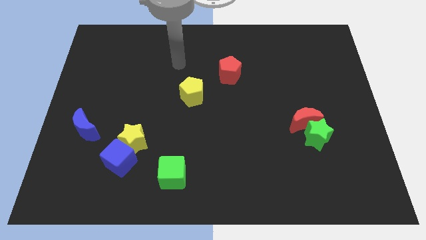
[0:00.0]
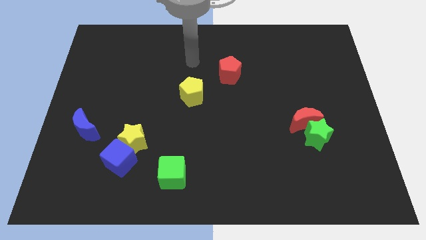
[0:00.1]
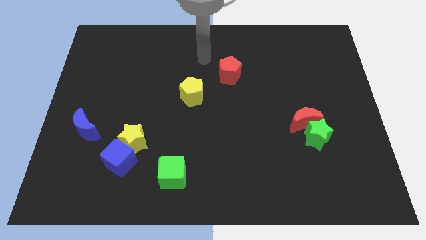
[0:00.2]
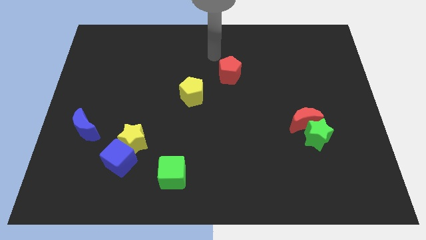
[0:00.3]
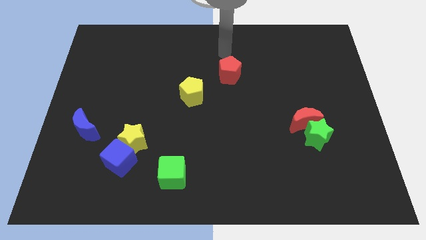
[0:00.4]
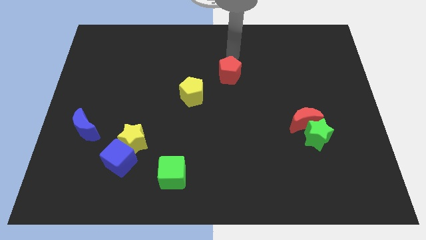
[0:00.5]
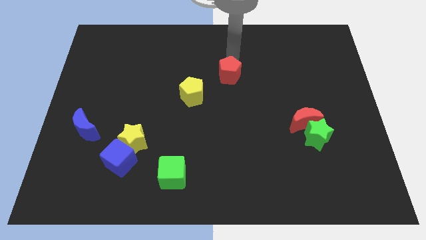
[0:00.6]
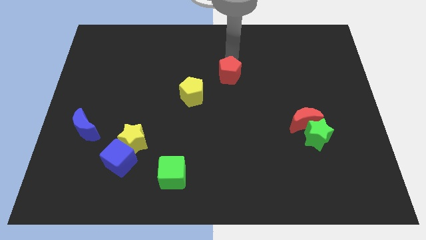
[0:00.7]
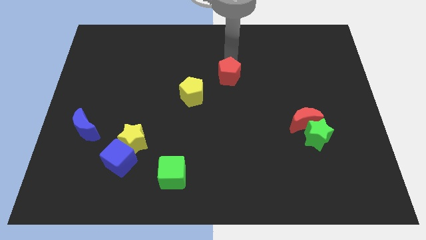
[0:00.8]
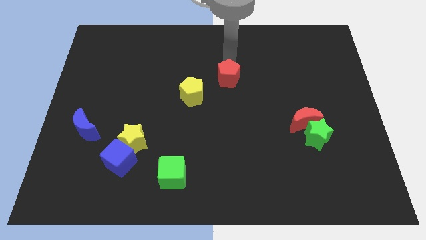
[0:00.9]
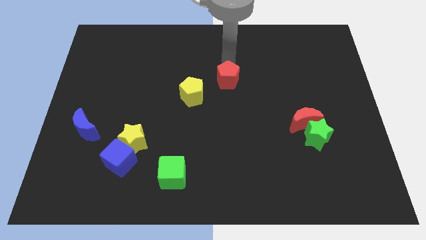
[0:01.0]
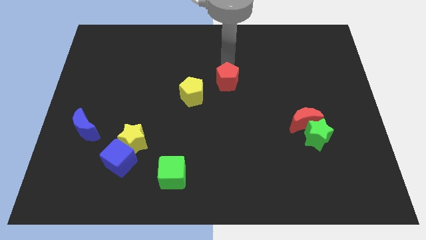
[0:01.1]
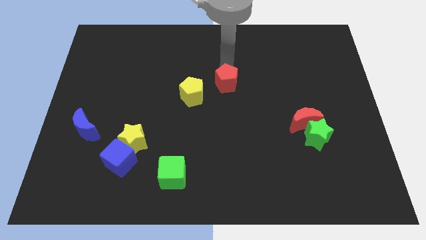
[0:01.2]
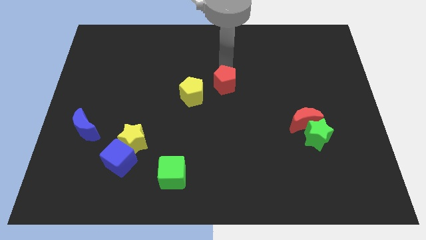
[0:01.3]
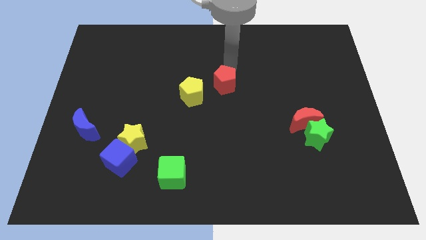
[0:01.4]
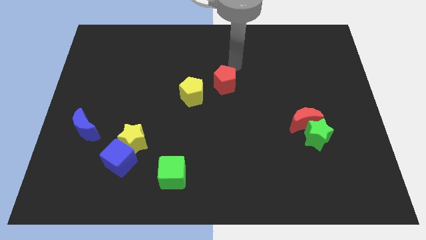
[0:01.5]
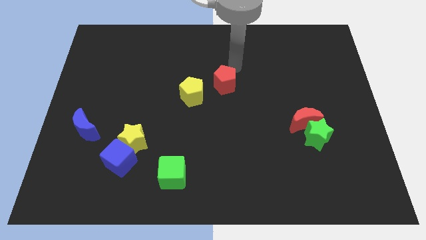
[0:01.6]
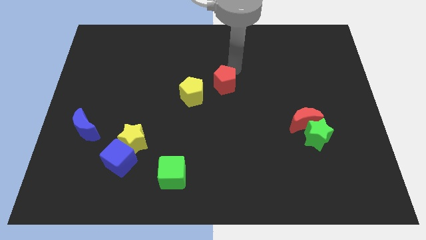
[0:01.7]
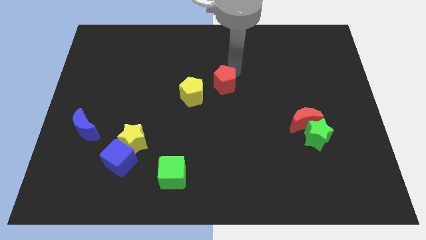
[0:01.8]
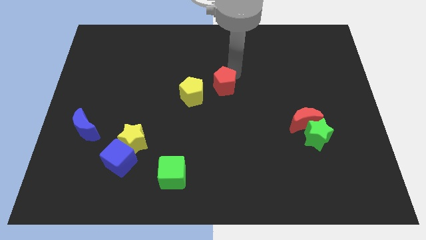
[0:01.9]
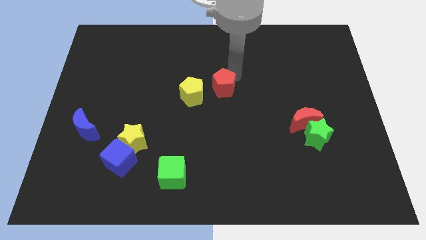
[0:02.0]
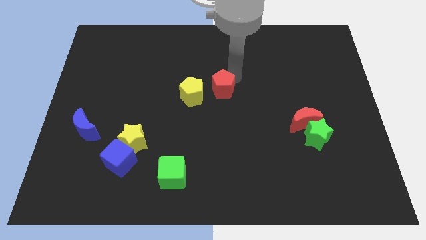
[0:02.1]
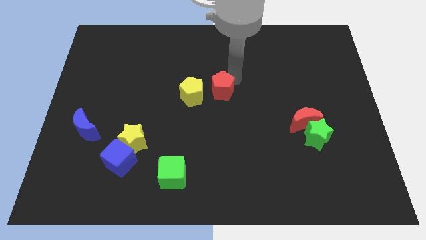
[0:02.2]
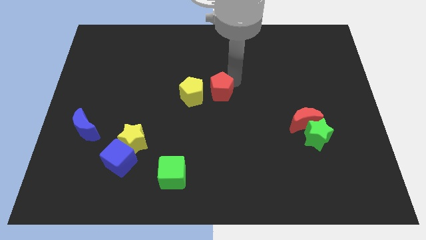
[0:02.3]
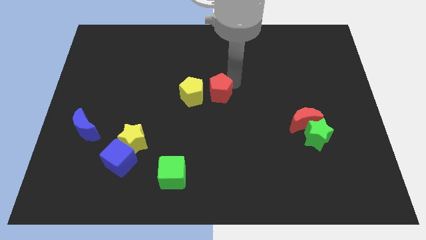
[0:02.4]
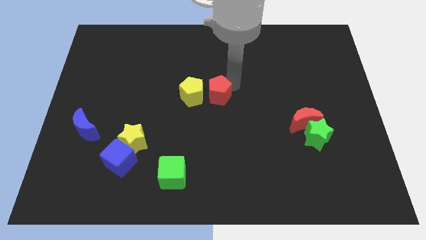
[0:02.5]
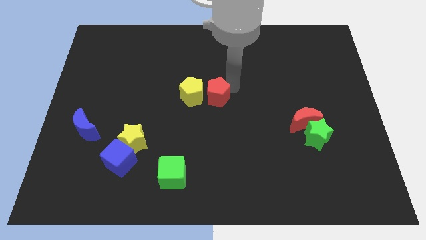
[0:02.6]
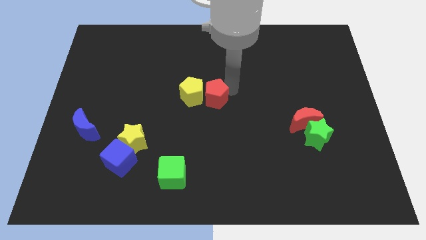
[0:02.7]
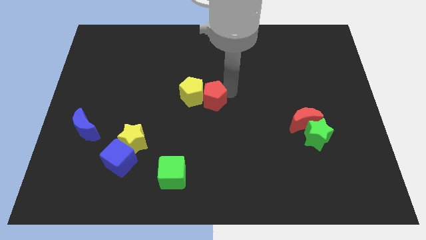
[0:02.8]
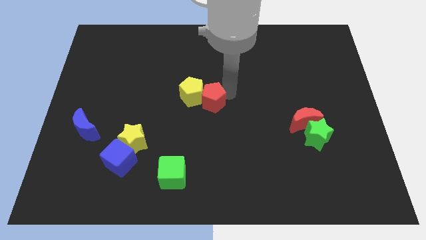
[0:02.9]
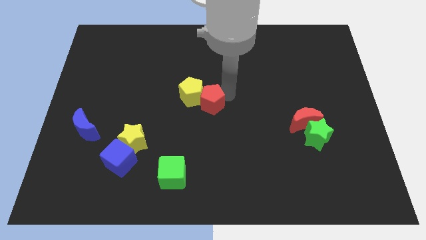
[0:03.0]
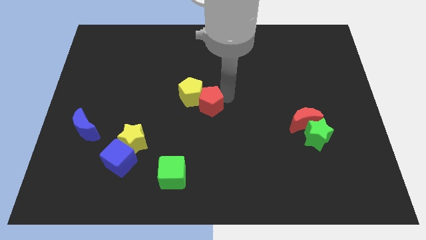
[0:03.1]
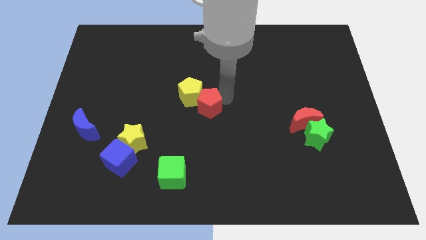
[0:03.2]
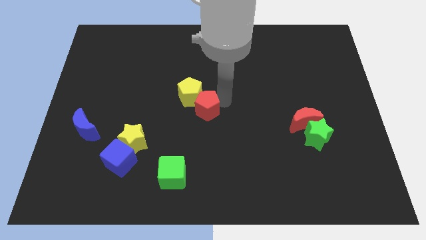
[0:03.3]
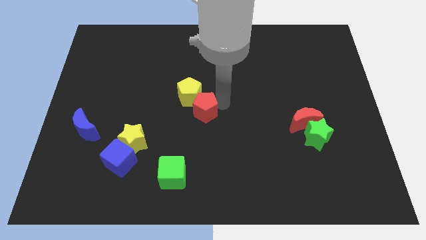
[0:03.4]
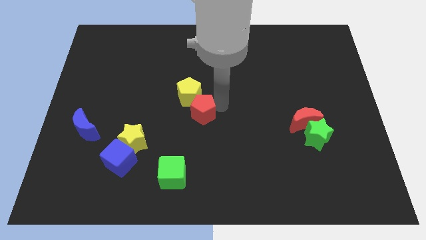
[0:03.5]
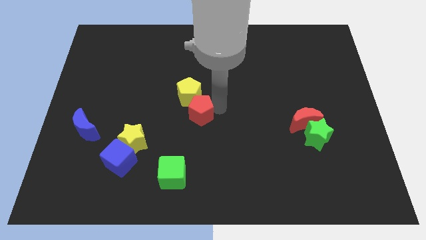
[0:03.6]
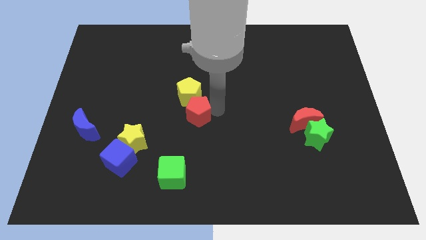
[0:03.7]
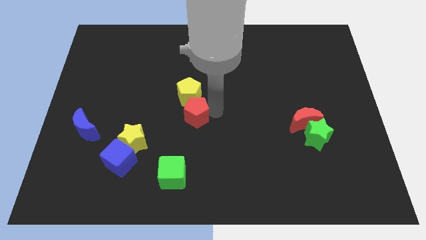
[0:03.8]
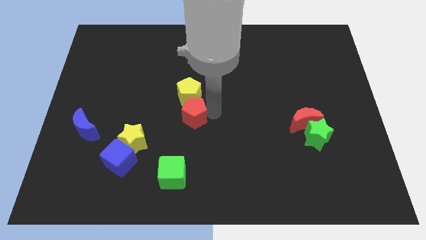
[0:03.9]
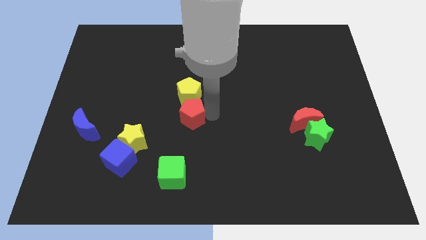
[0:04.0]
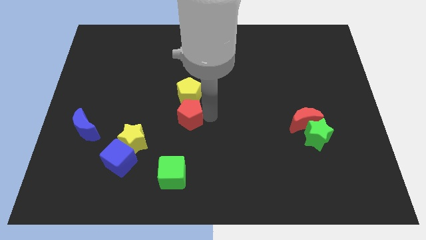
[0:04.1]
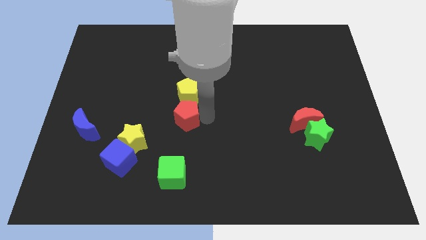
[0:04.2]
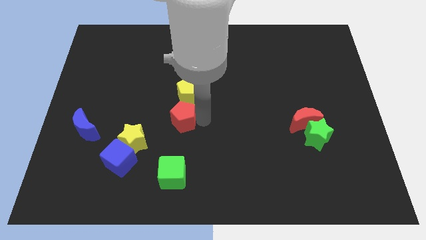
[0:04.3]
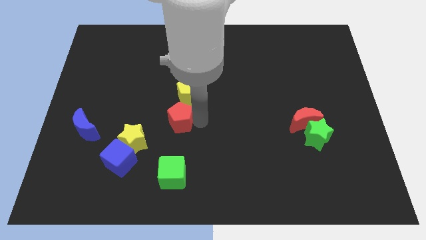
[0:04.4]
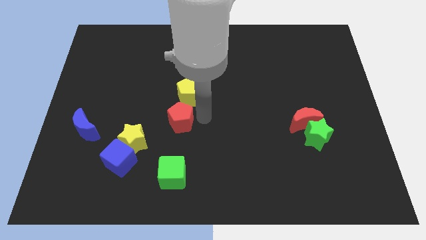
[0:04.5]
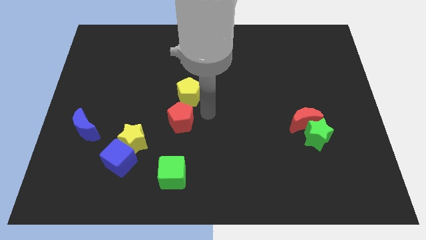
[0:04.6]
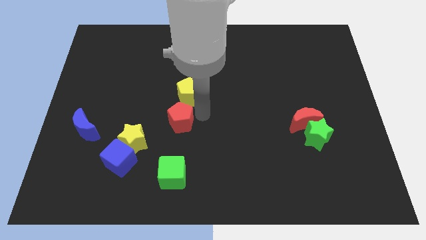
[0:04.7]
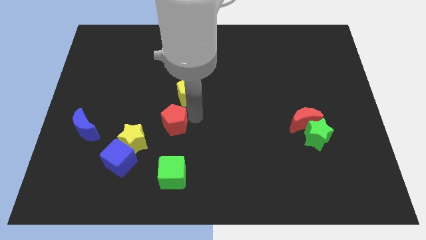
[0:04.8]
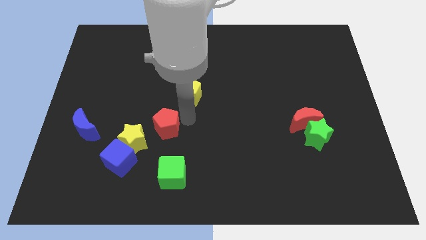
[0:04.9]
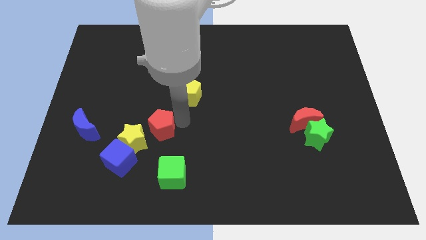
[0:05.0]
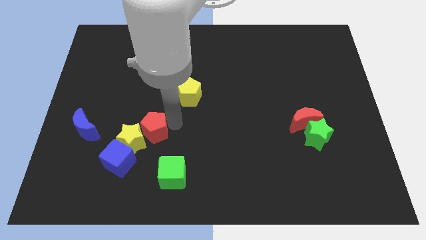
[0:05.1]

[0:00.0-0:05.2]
slide the red pentagon close to the yellow star

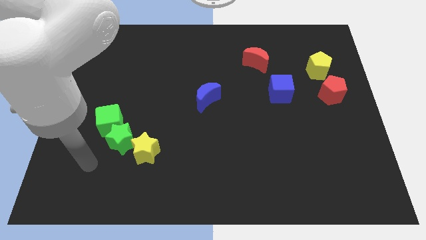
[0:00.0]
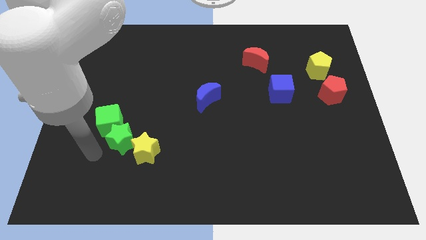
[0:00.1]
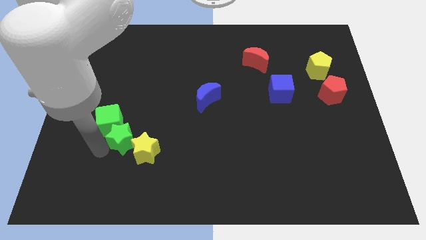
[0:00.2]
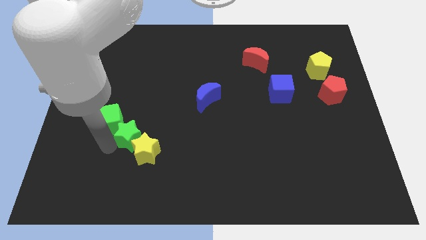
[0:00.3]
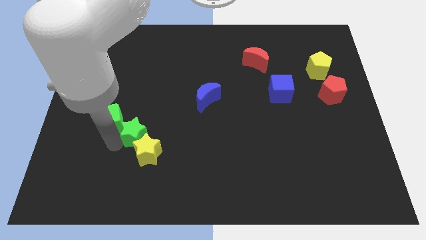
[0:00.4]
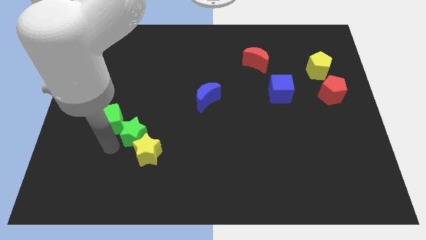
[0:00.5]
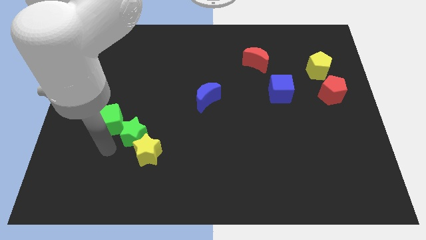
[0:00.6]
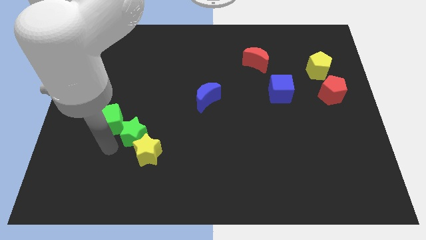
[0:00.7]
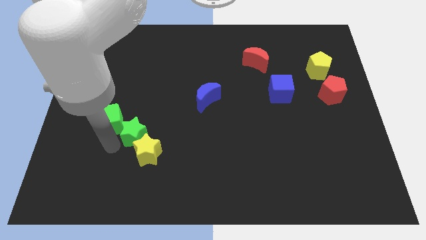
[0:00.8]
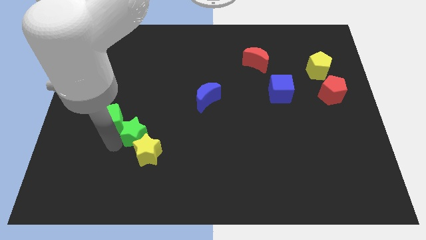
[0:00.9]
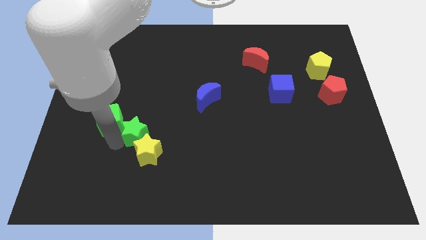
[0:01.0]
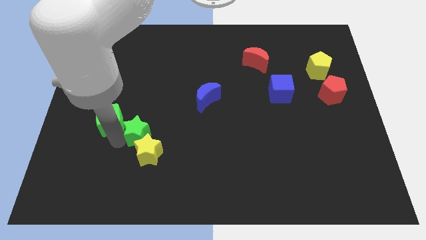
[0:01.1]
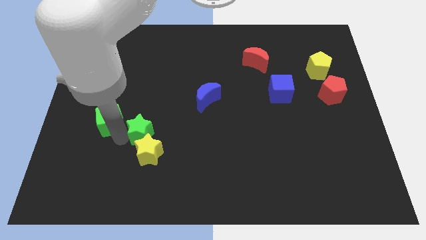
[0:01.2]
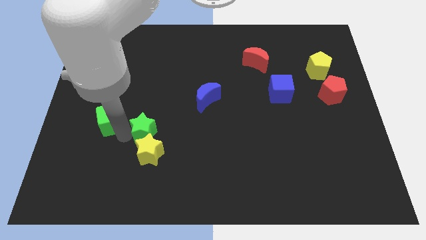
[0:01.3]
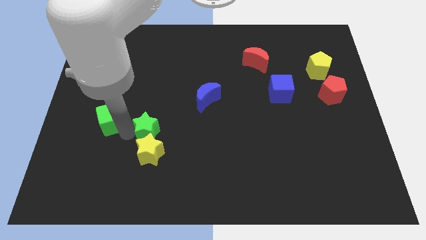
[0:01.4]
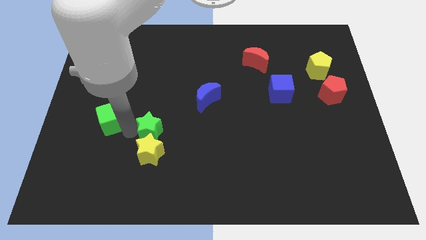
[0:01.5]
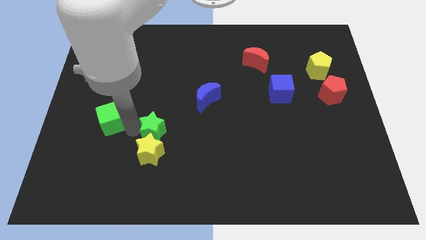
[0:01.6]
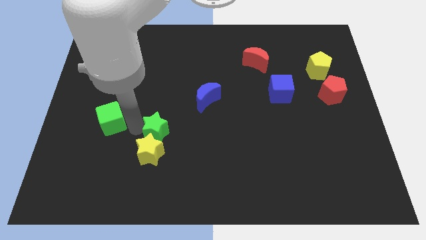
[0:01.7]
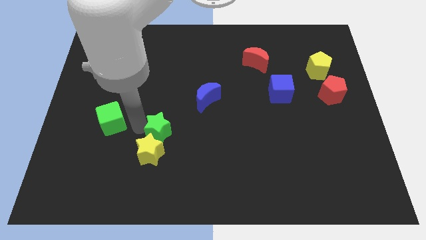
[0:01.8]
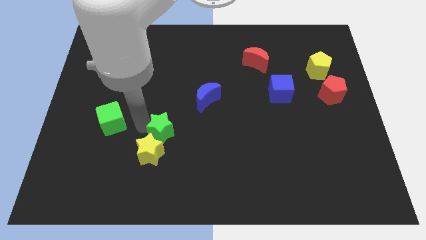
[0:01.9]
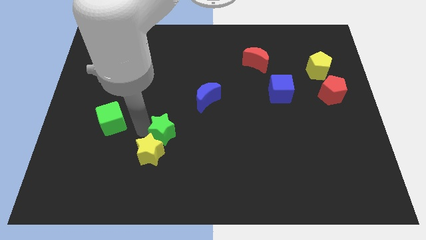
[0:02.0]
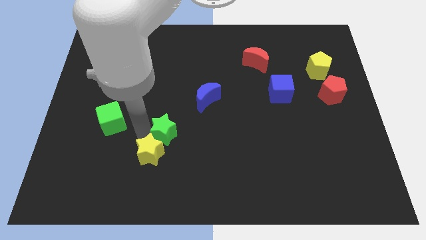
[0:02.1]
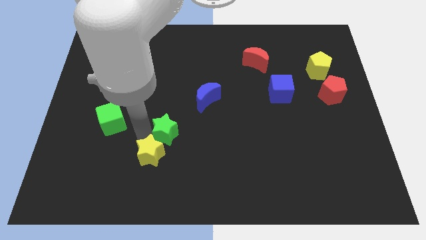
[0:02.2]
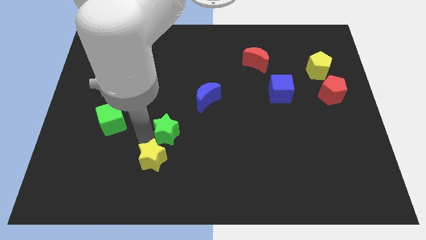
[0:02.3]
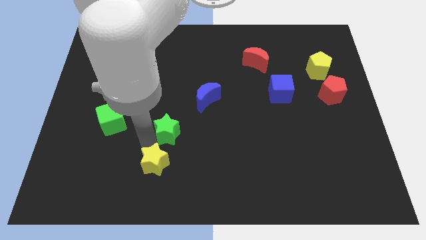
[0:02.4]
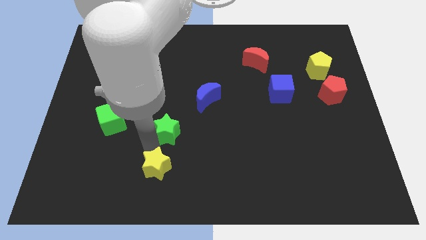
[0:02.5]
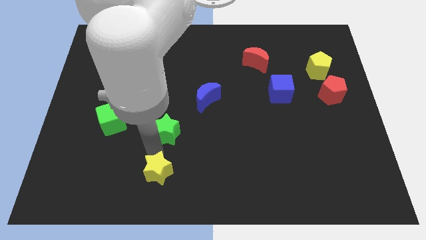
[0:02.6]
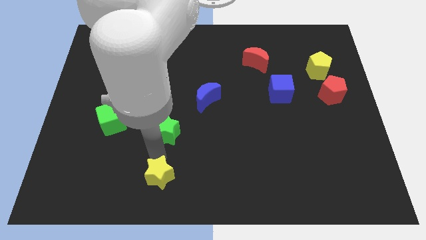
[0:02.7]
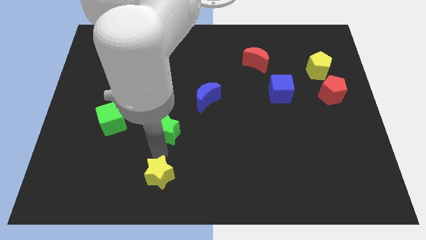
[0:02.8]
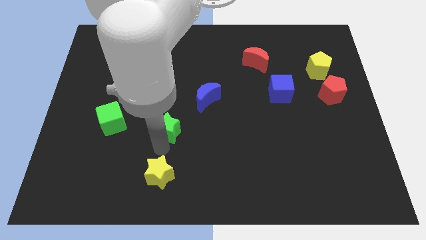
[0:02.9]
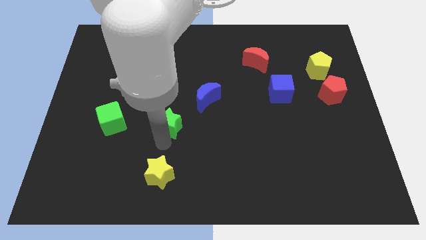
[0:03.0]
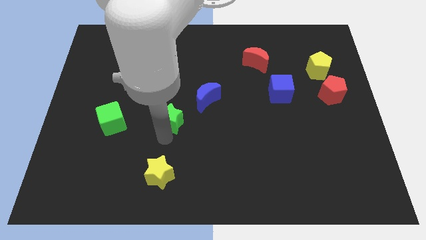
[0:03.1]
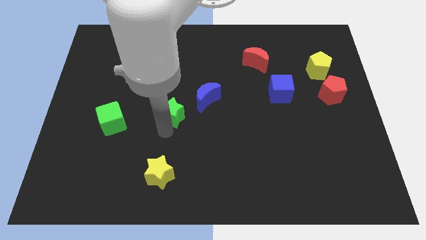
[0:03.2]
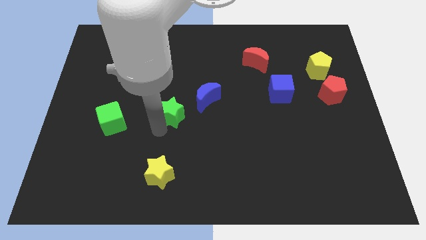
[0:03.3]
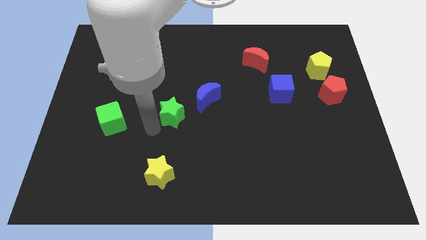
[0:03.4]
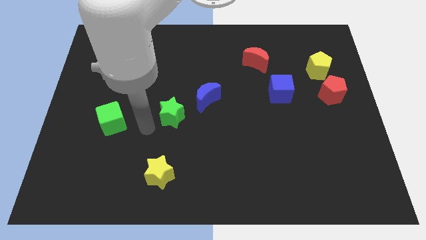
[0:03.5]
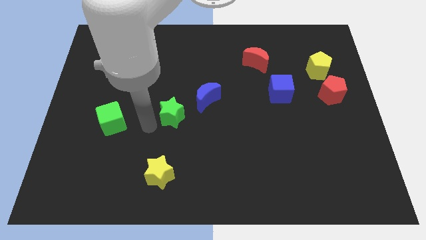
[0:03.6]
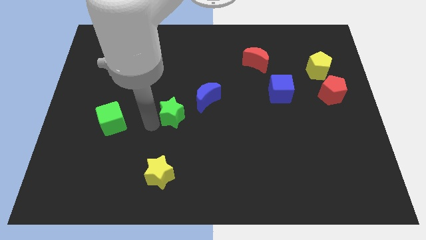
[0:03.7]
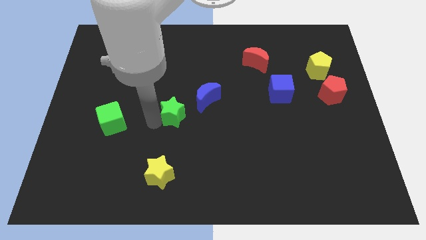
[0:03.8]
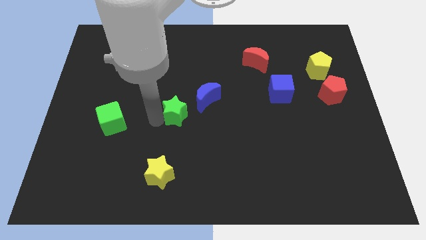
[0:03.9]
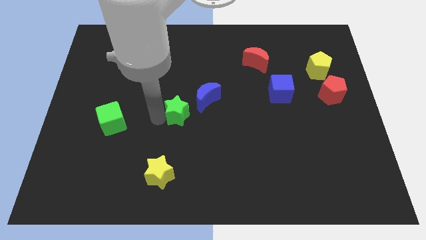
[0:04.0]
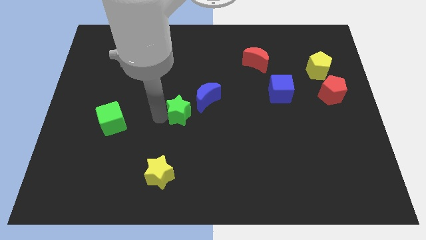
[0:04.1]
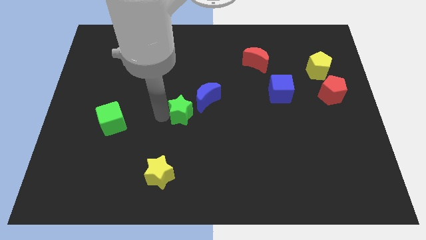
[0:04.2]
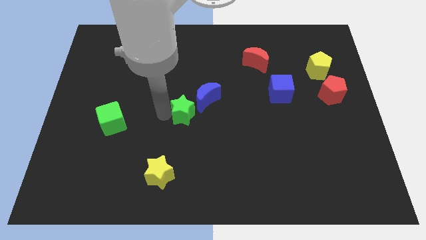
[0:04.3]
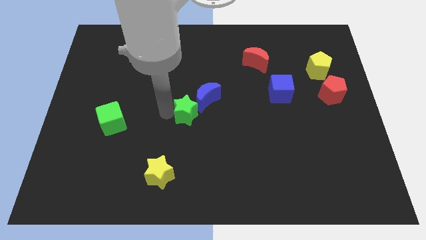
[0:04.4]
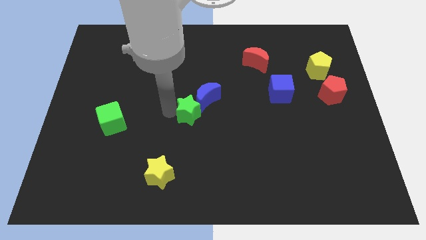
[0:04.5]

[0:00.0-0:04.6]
move the green star towards the blue moon
